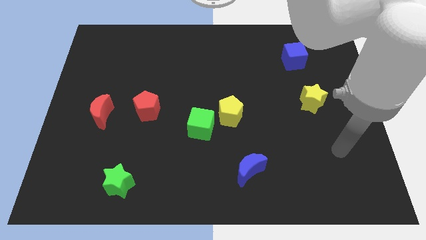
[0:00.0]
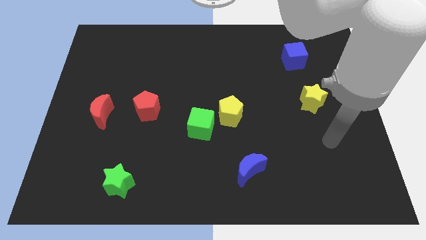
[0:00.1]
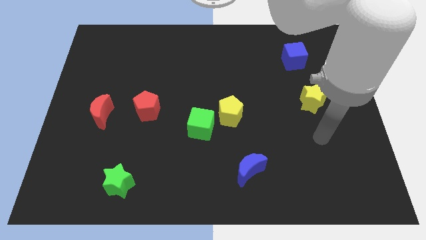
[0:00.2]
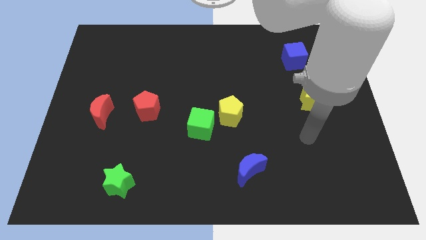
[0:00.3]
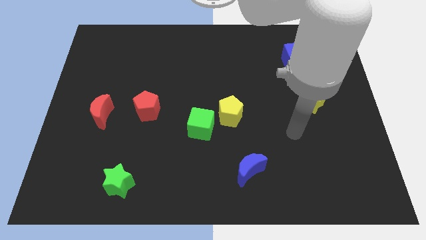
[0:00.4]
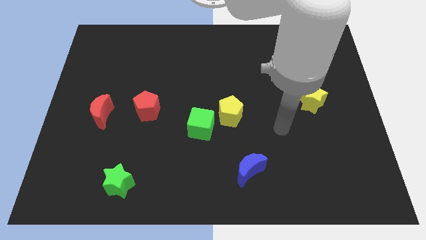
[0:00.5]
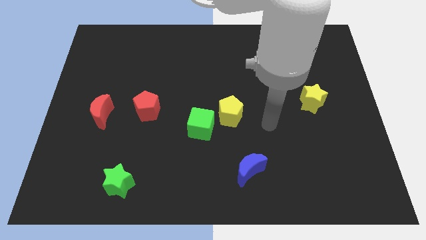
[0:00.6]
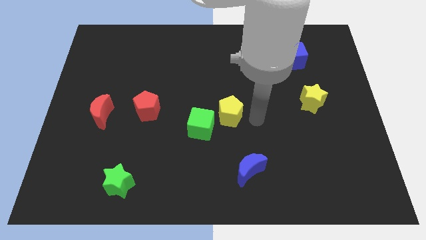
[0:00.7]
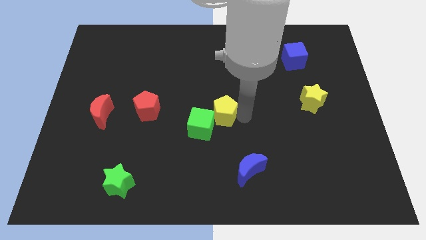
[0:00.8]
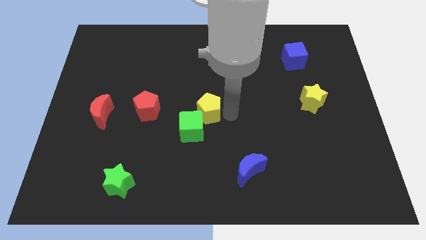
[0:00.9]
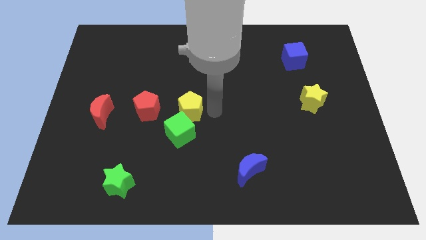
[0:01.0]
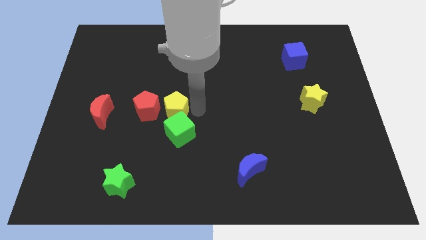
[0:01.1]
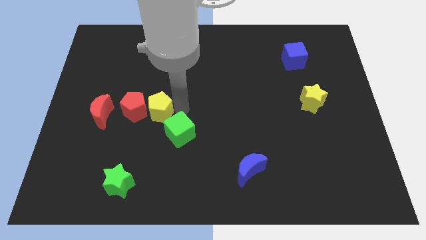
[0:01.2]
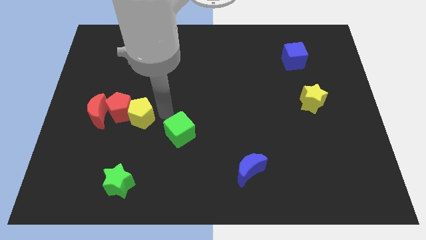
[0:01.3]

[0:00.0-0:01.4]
move the green cube away from the yellow pentagon

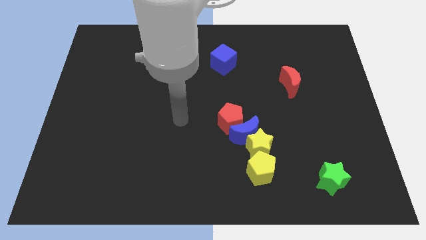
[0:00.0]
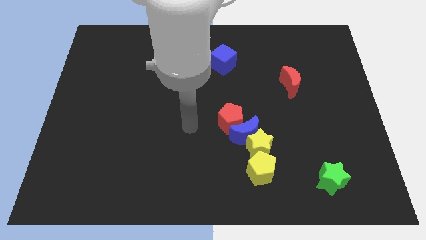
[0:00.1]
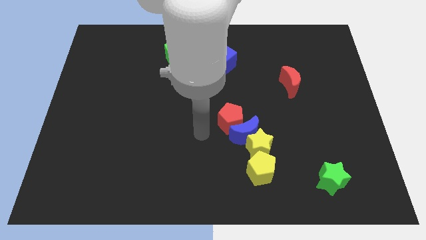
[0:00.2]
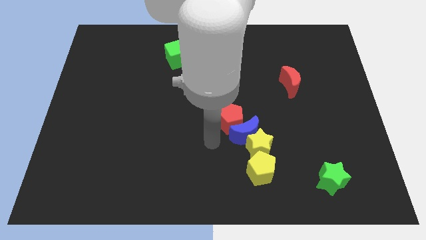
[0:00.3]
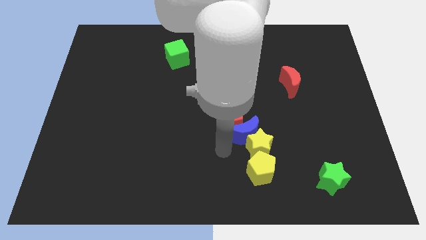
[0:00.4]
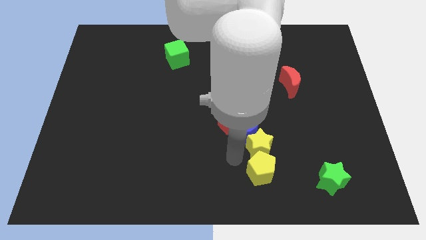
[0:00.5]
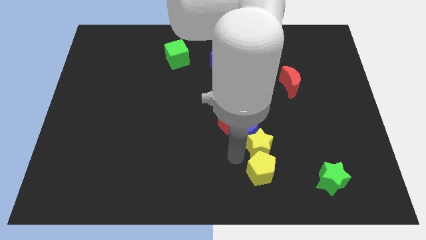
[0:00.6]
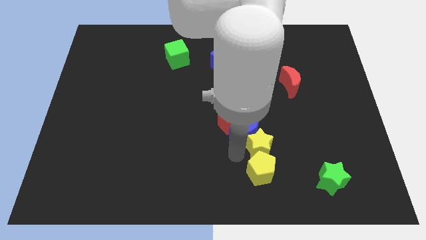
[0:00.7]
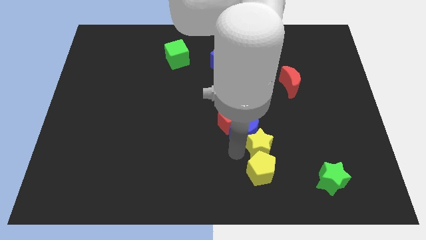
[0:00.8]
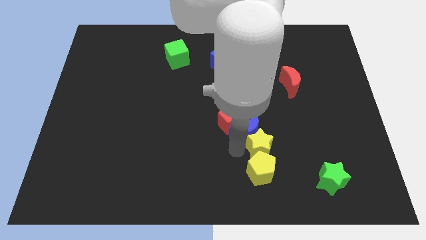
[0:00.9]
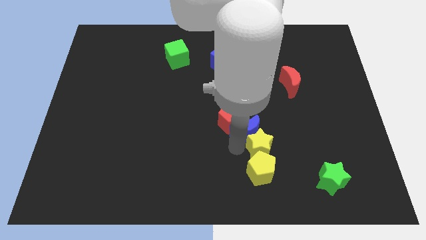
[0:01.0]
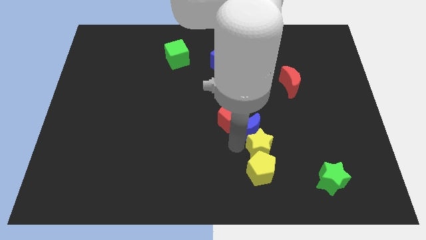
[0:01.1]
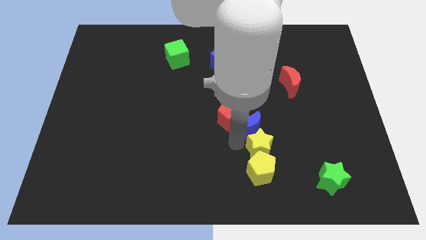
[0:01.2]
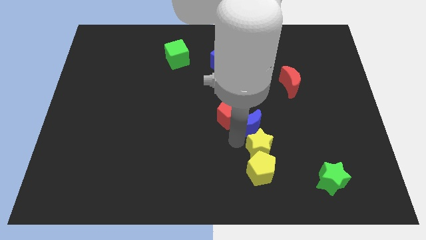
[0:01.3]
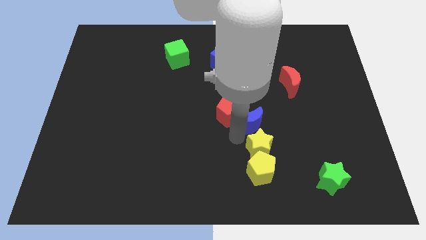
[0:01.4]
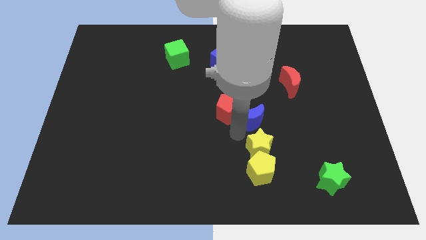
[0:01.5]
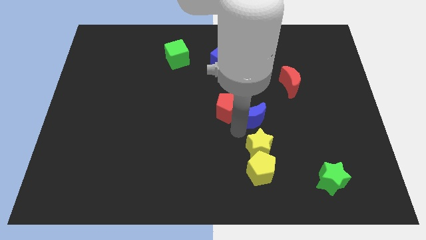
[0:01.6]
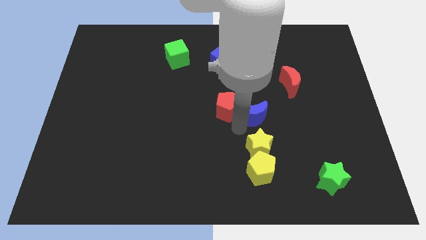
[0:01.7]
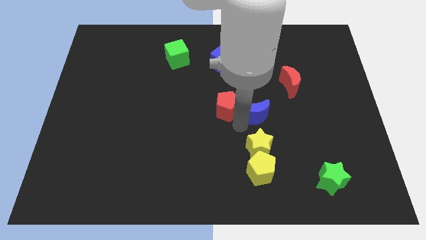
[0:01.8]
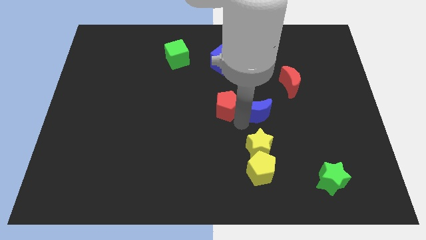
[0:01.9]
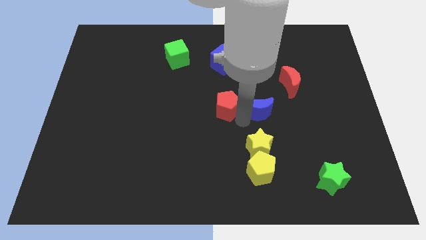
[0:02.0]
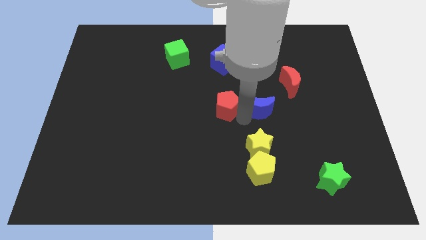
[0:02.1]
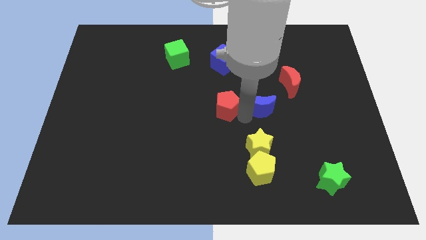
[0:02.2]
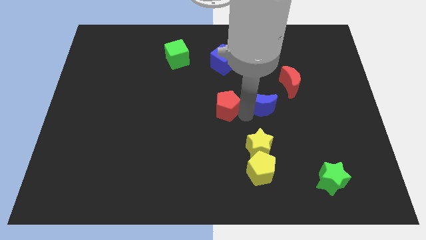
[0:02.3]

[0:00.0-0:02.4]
pull the blue moon apart from the yellow star, red pentagon, and yellow pentagon

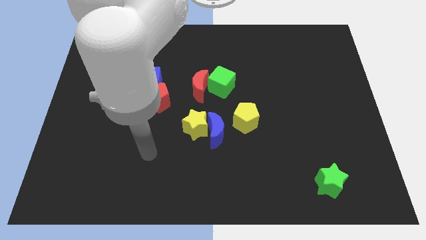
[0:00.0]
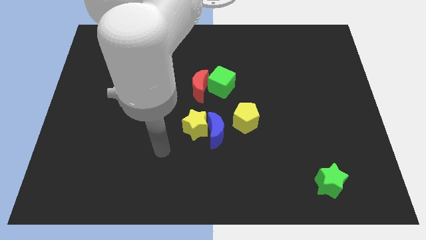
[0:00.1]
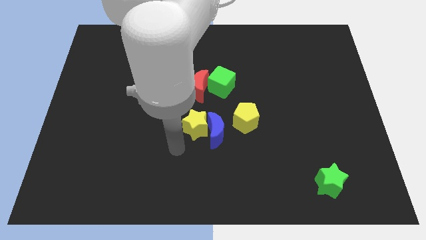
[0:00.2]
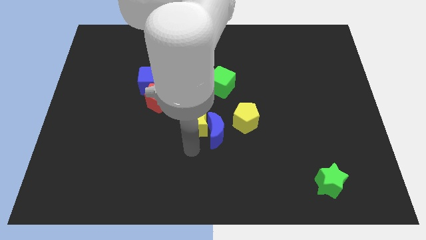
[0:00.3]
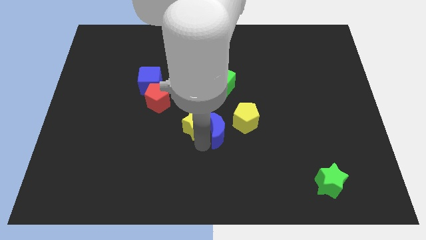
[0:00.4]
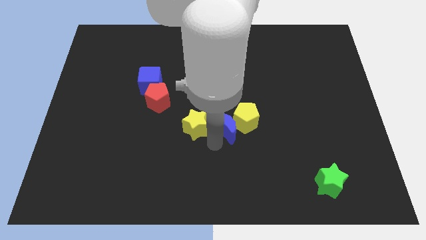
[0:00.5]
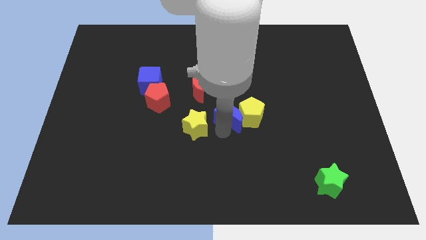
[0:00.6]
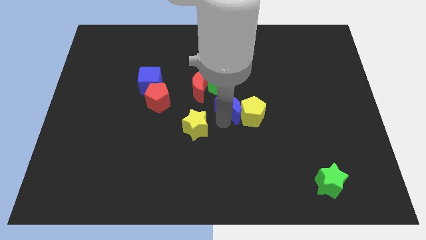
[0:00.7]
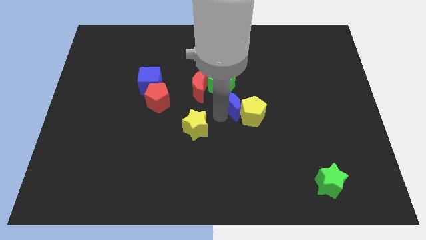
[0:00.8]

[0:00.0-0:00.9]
pull the yellow star apart from the blue moon

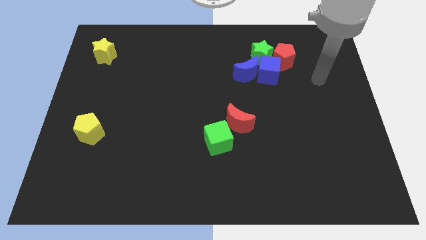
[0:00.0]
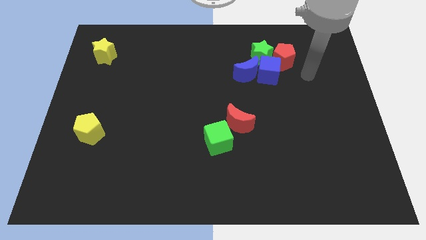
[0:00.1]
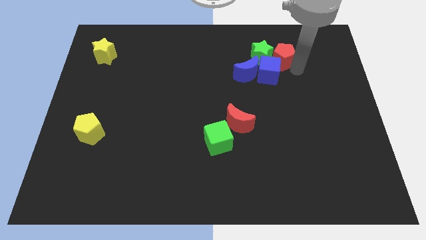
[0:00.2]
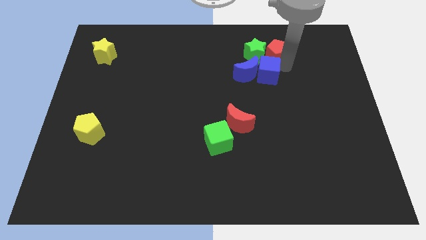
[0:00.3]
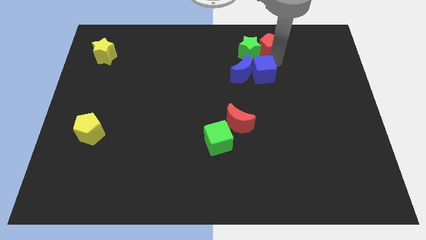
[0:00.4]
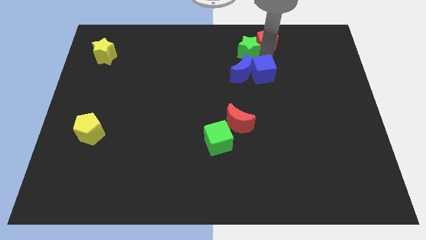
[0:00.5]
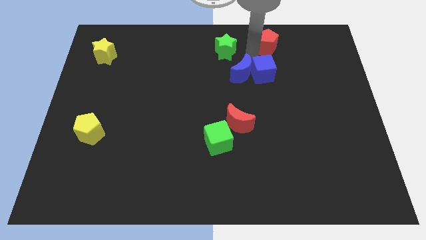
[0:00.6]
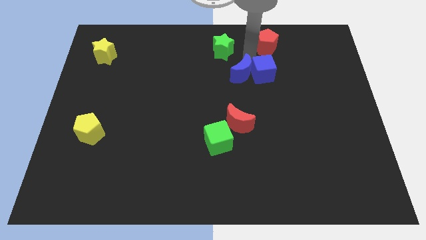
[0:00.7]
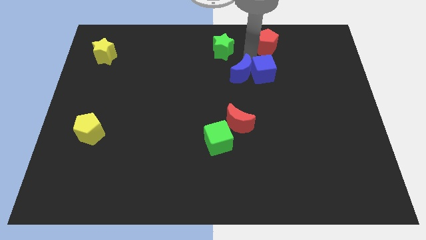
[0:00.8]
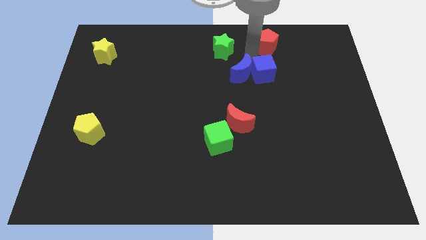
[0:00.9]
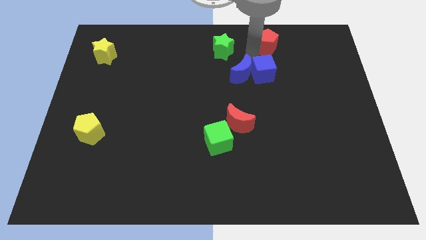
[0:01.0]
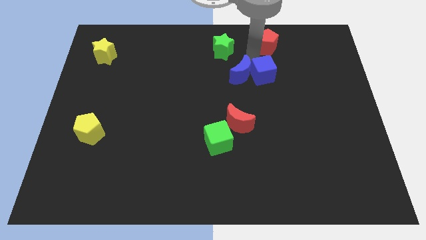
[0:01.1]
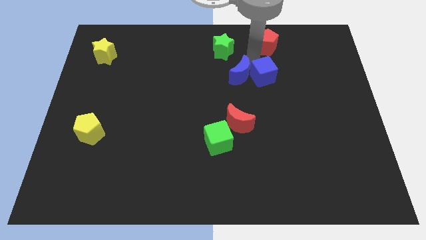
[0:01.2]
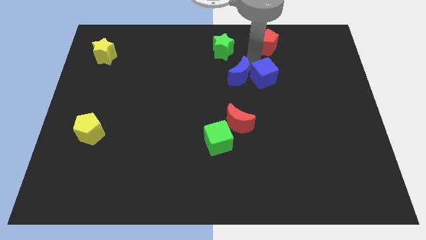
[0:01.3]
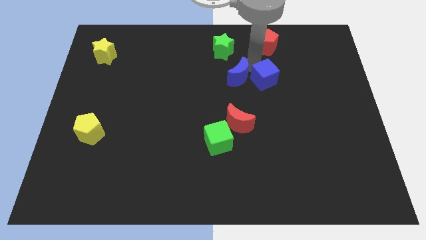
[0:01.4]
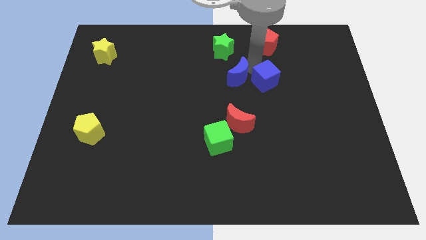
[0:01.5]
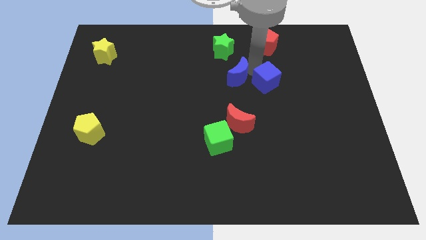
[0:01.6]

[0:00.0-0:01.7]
move the blue cube away from the blue moon, green star, and red pentagon

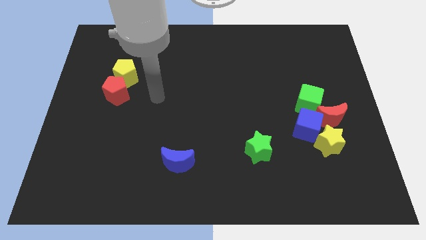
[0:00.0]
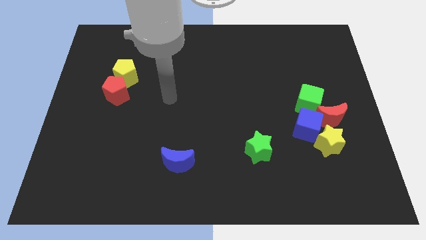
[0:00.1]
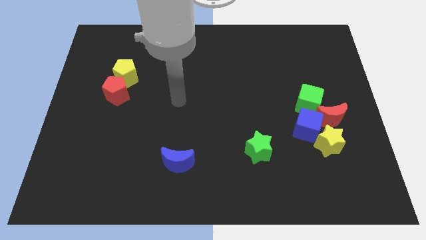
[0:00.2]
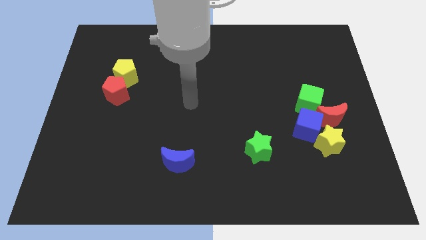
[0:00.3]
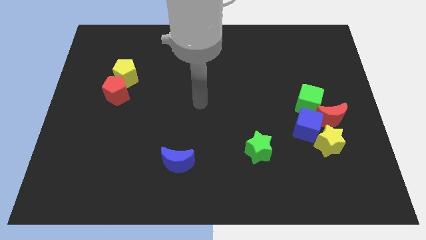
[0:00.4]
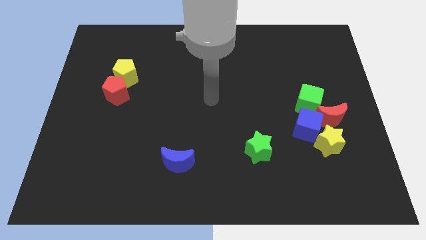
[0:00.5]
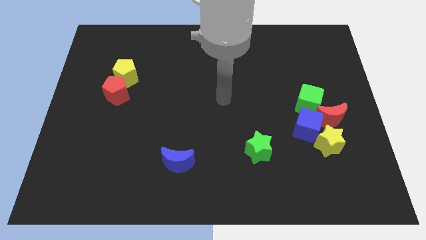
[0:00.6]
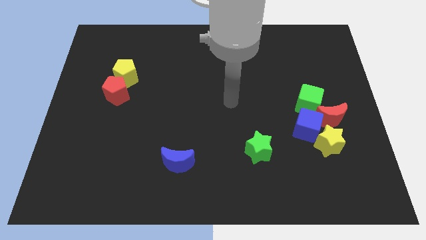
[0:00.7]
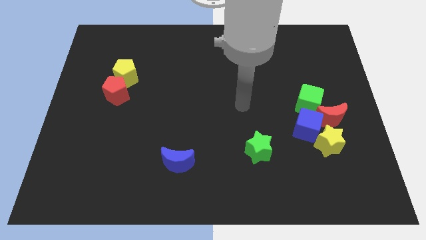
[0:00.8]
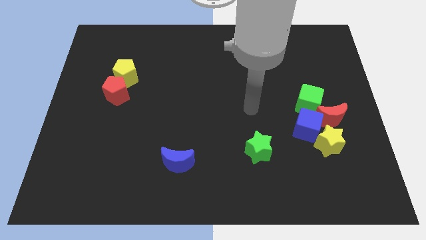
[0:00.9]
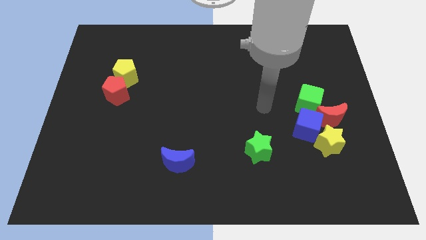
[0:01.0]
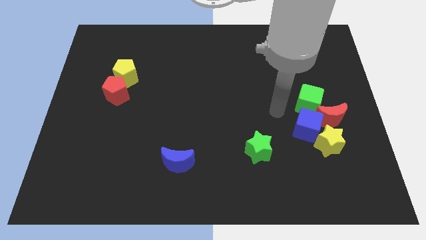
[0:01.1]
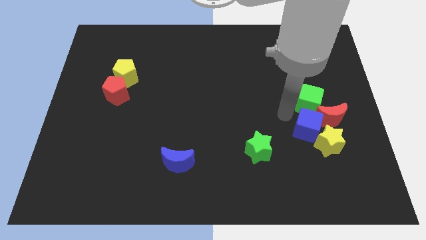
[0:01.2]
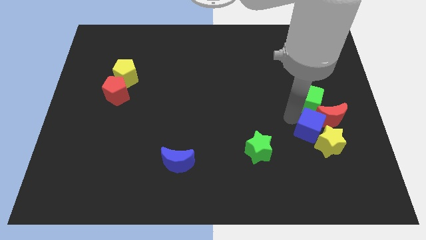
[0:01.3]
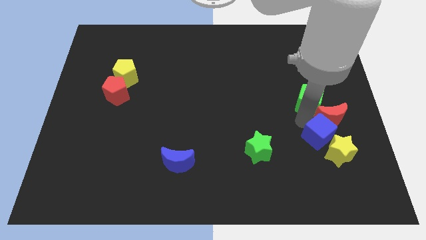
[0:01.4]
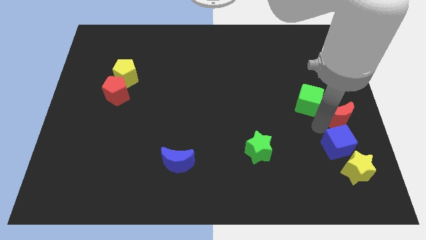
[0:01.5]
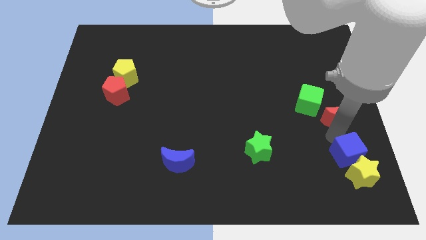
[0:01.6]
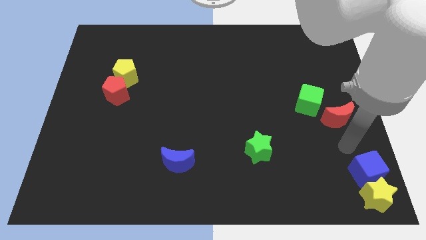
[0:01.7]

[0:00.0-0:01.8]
separate the yellow star from the blue cube and red moon

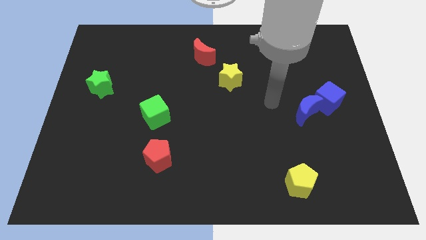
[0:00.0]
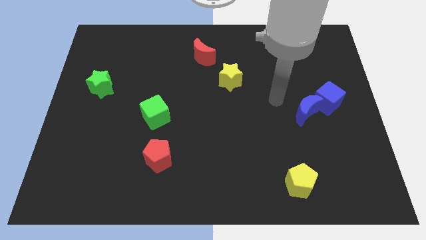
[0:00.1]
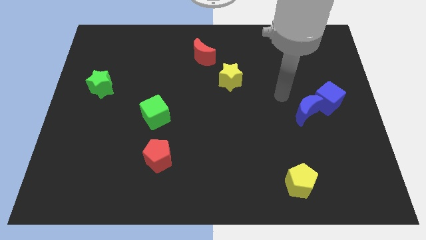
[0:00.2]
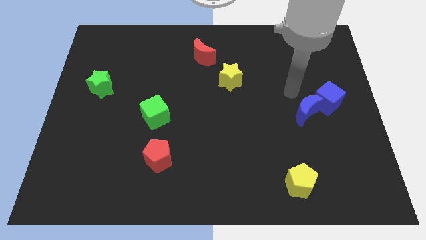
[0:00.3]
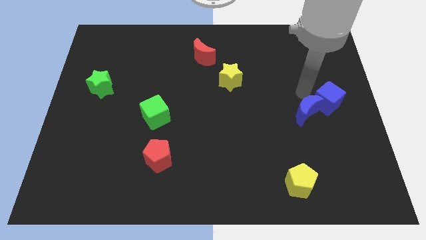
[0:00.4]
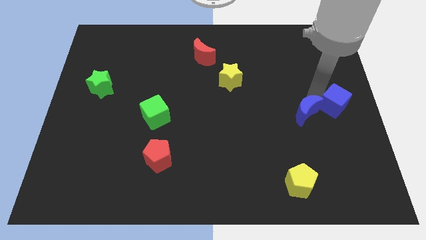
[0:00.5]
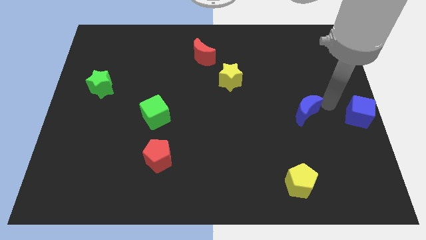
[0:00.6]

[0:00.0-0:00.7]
move the blue moon away from the blue cube

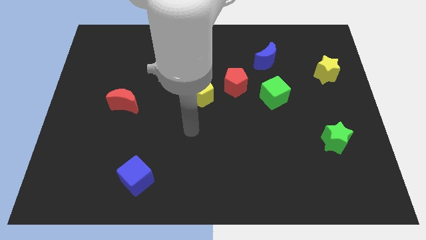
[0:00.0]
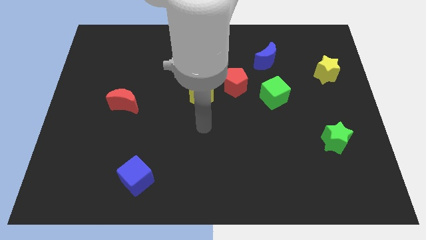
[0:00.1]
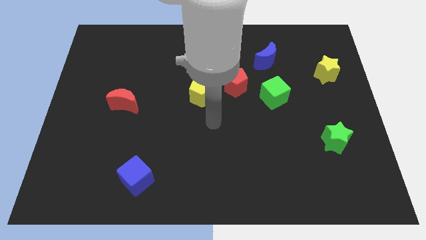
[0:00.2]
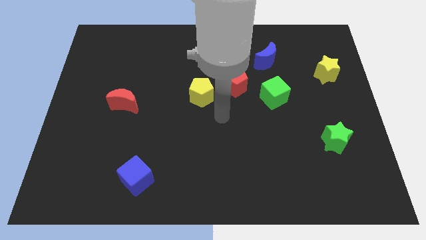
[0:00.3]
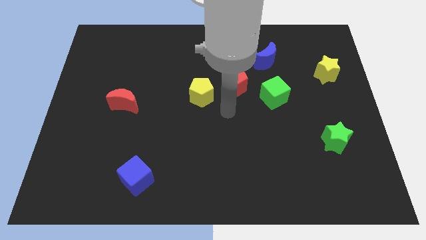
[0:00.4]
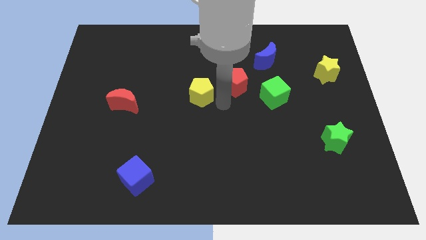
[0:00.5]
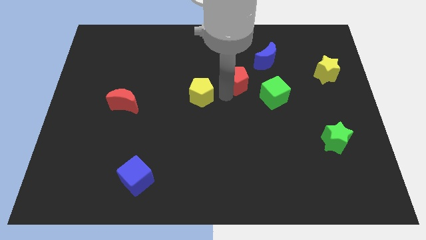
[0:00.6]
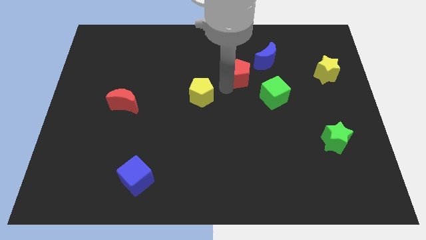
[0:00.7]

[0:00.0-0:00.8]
pull the yellow pentagon apart from the red pentagon
